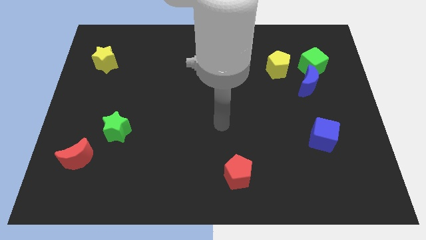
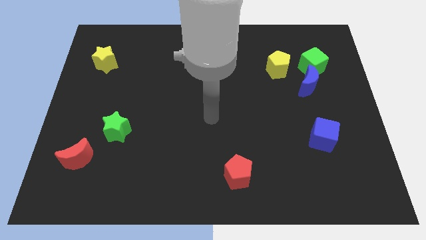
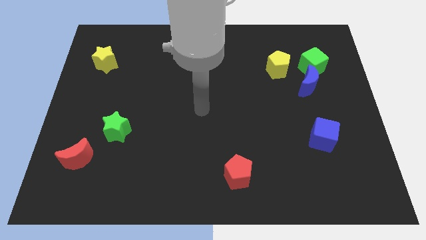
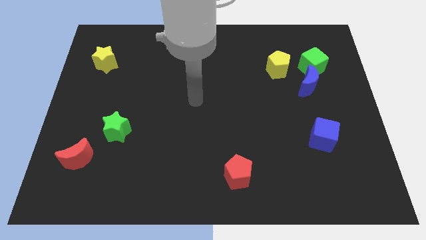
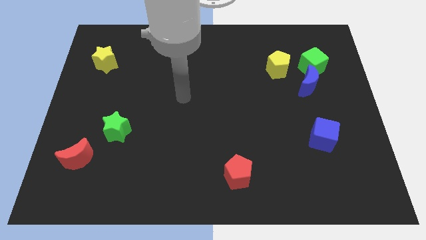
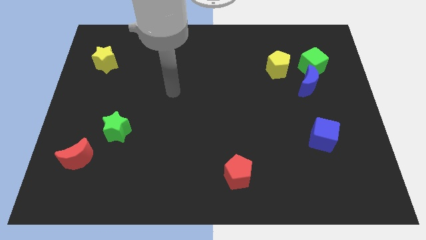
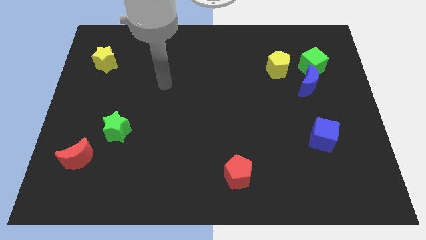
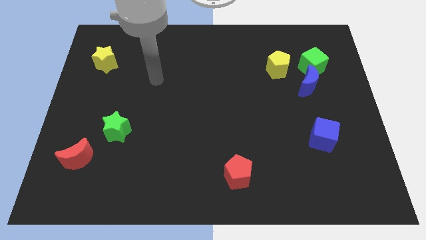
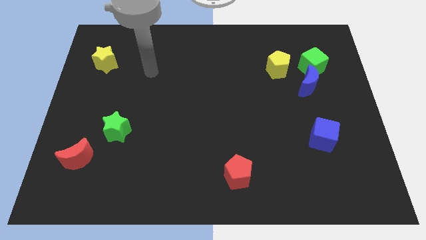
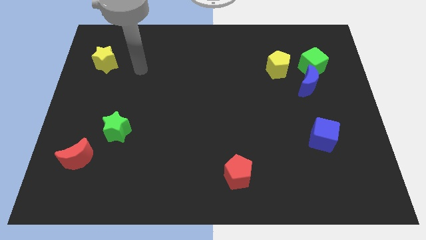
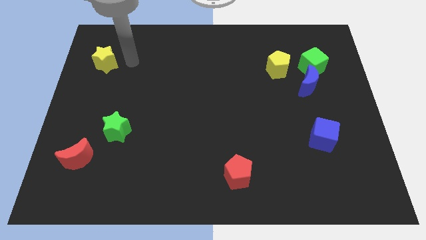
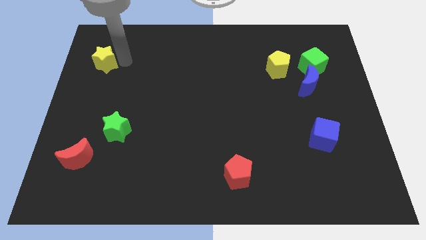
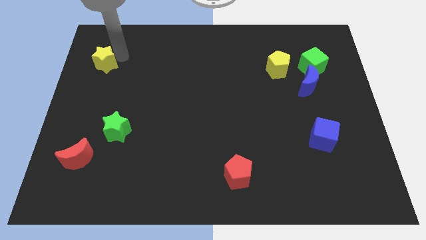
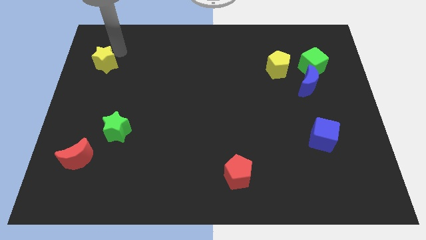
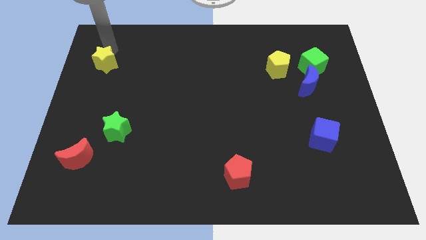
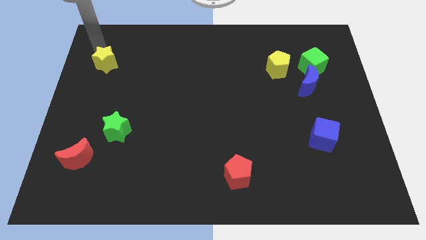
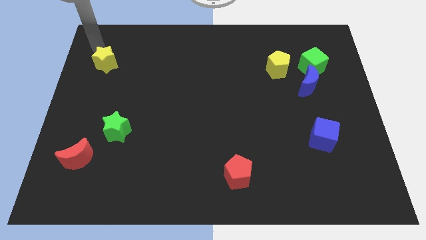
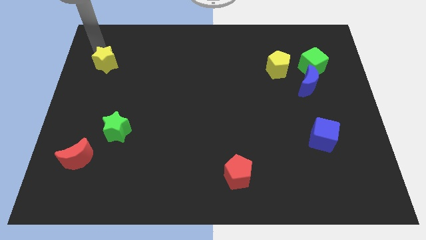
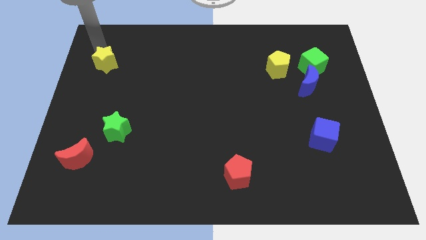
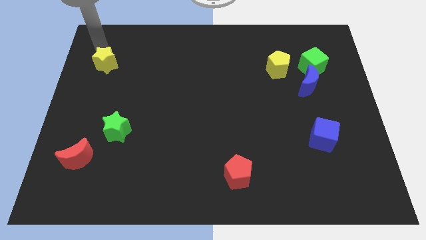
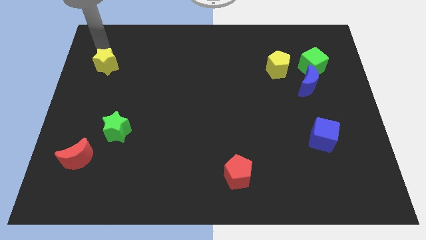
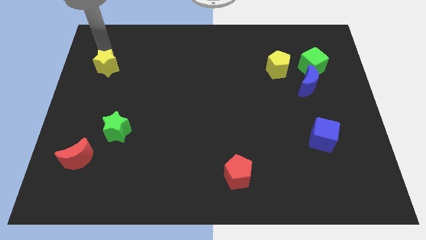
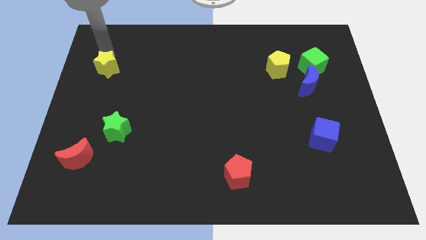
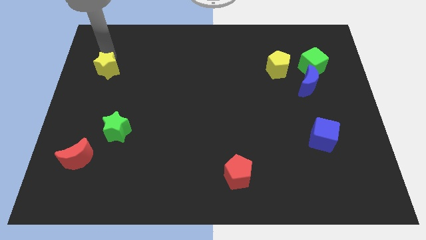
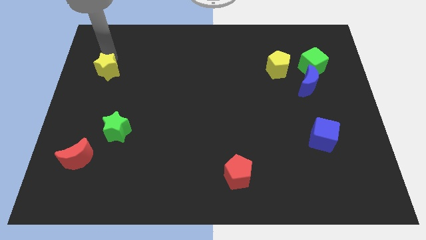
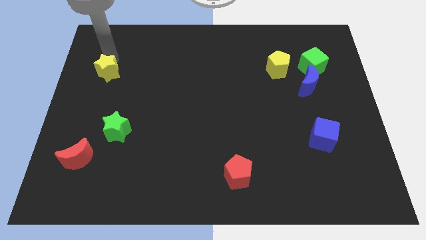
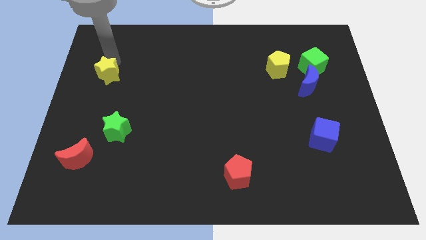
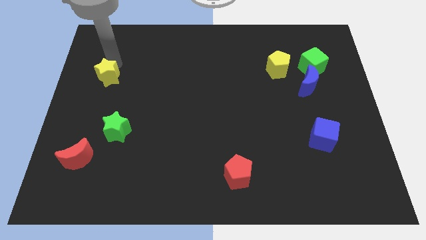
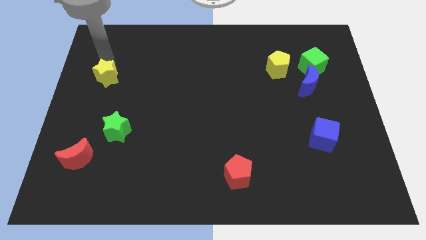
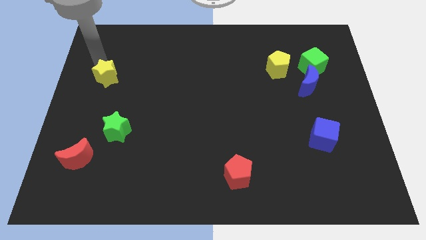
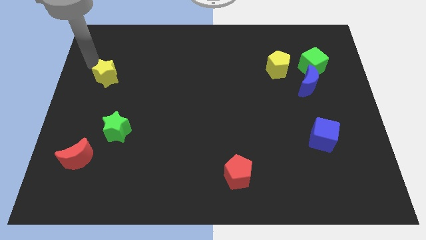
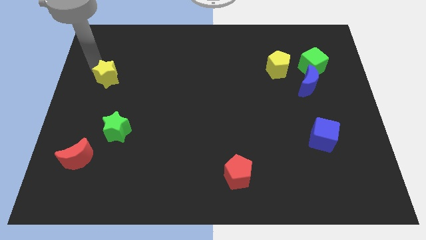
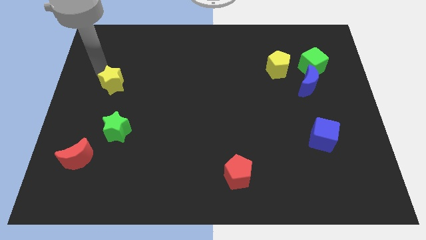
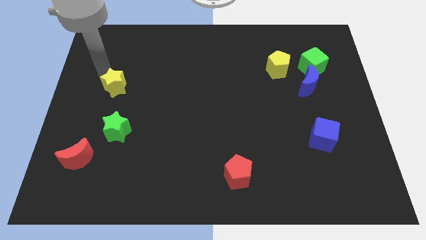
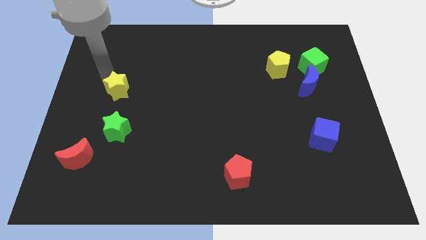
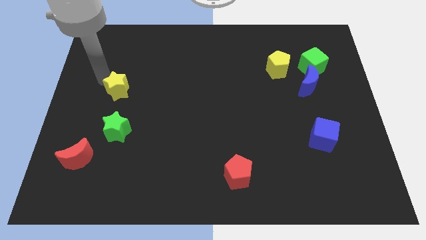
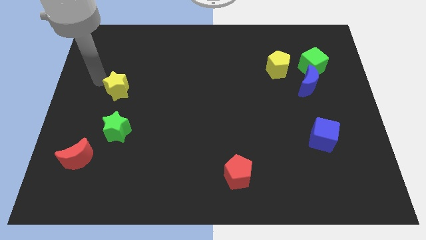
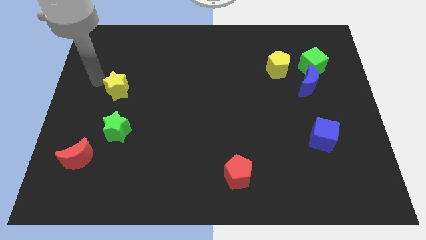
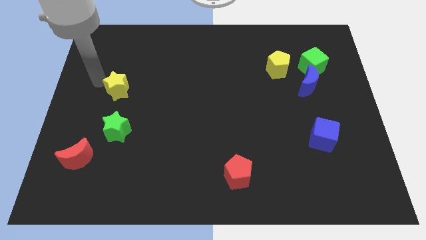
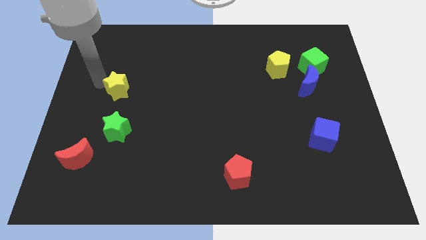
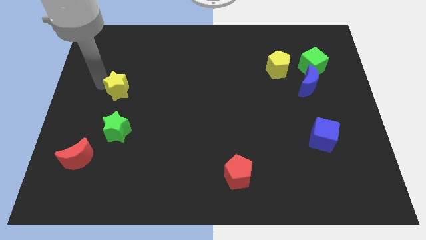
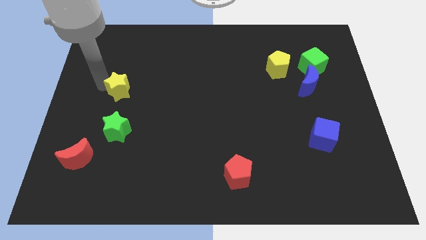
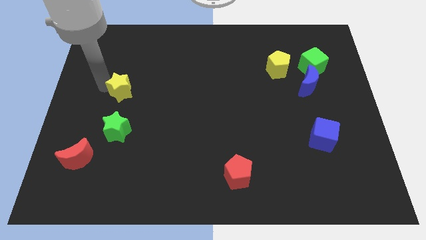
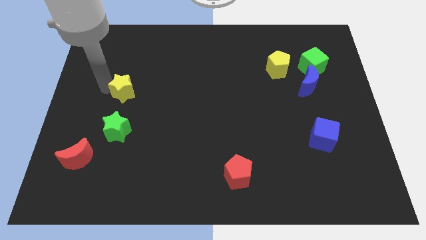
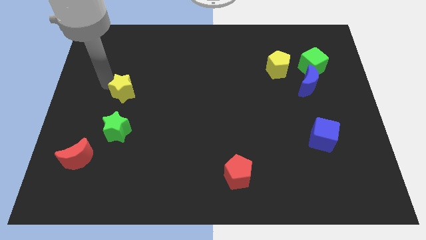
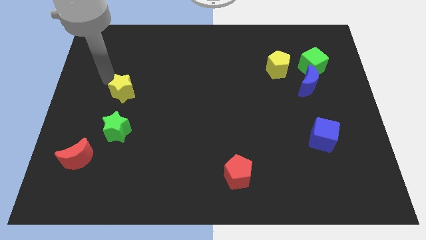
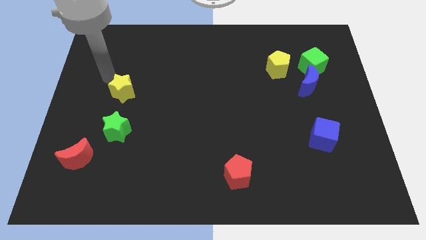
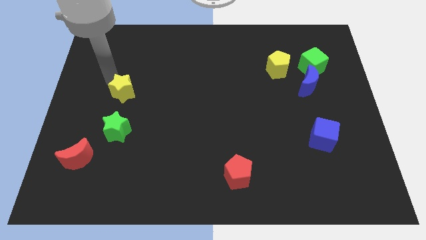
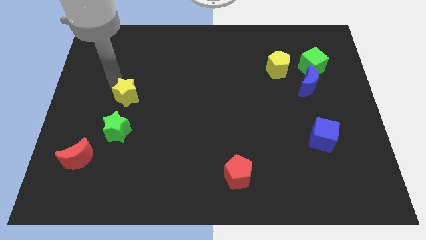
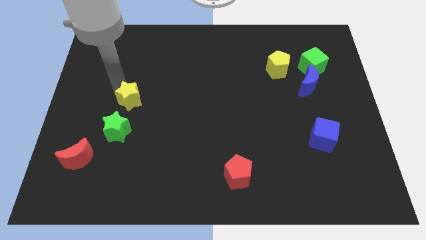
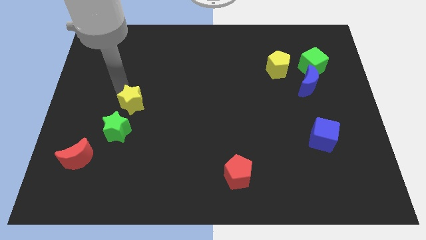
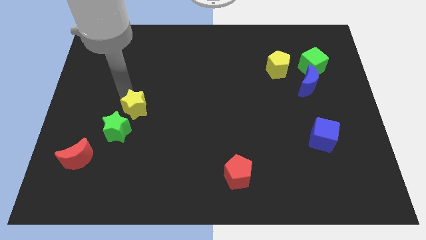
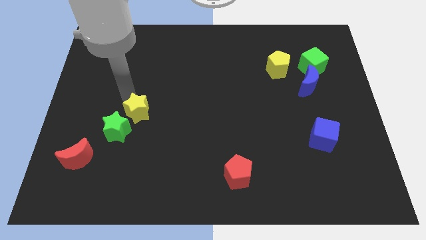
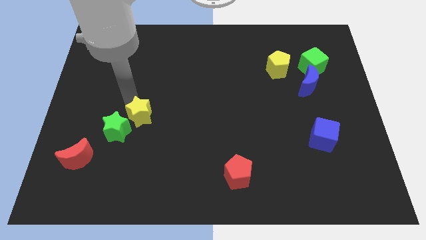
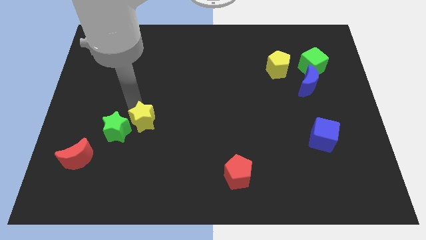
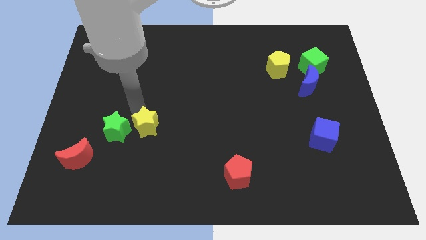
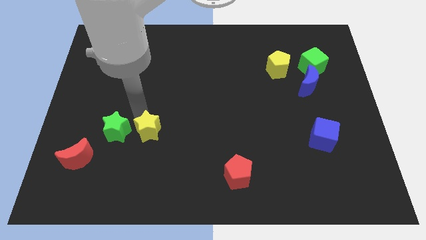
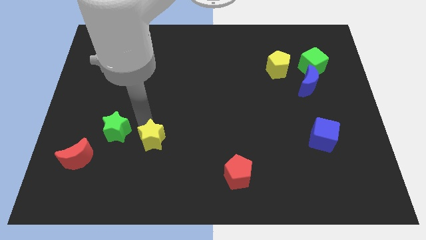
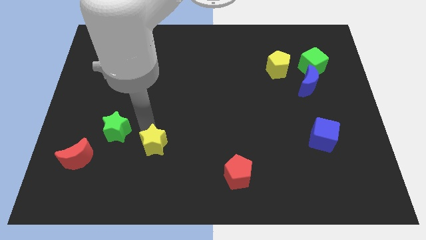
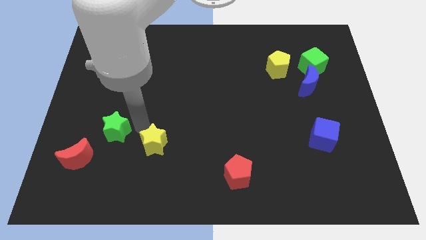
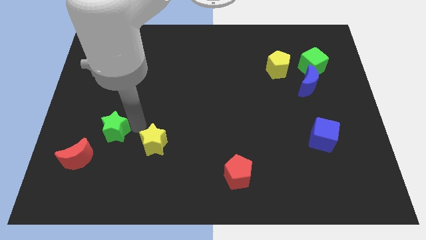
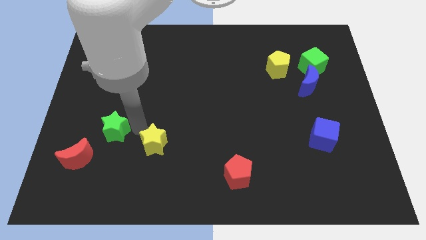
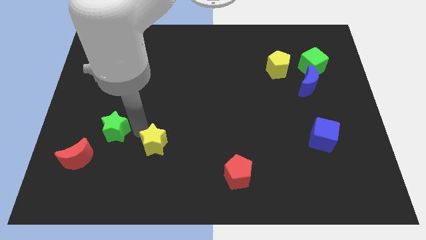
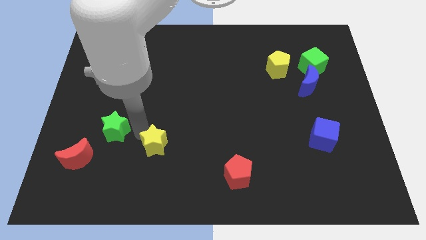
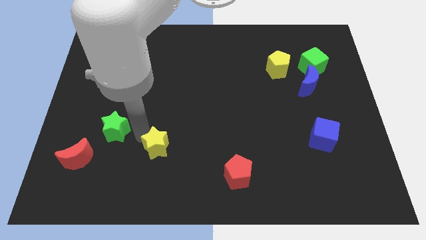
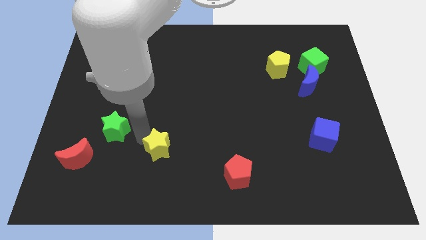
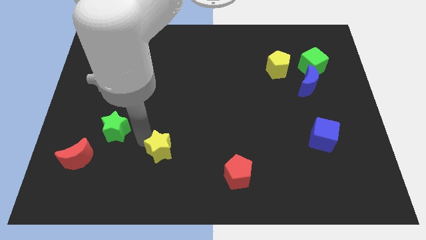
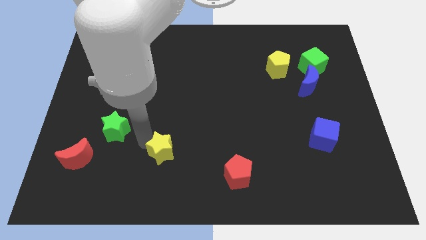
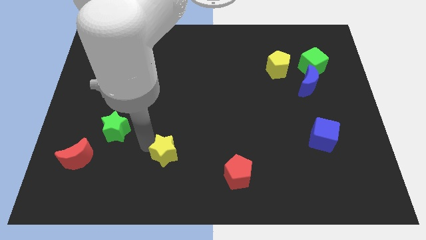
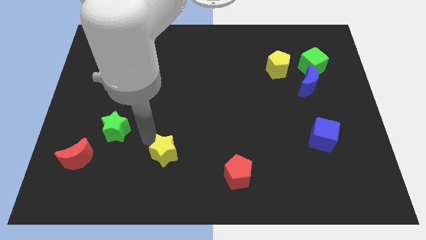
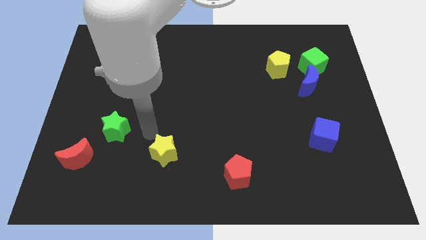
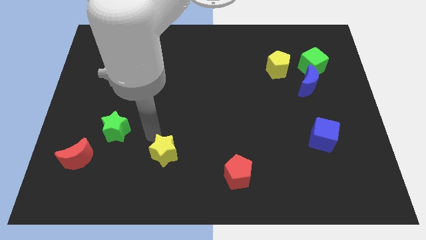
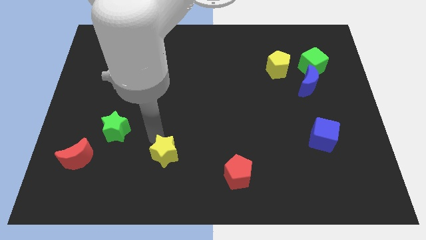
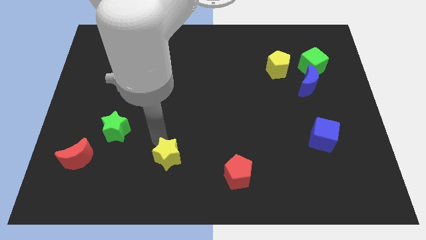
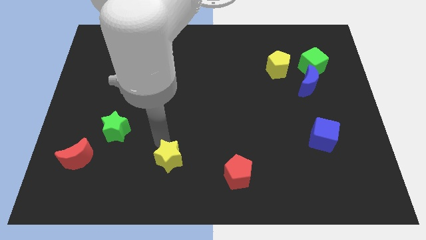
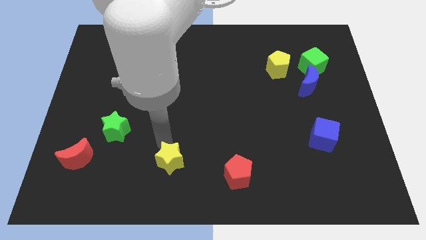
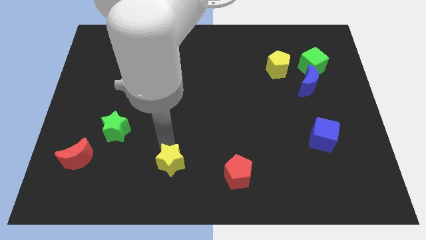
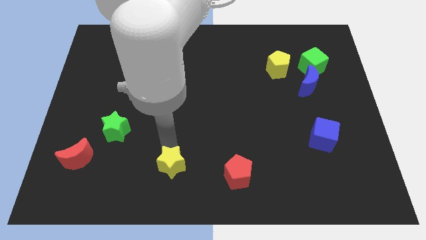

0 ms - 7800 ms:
slide the yellow star to the bottom
